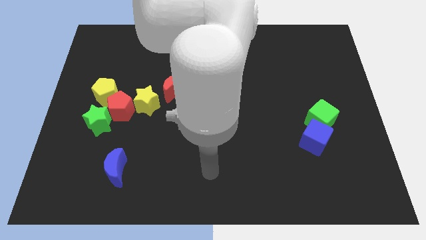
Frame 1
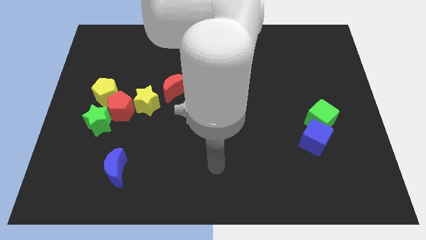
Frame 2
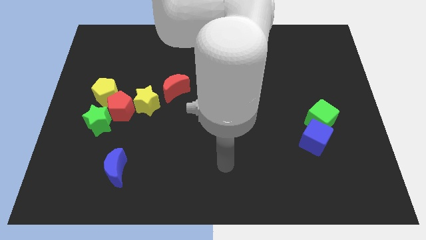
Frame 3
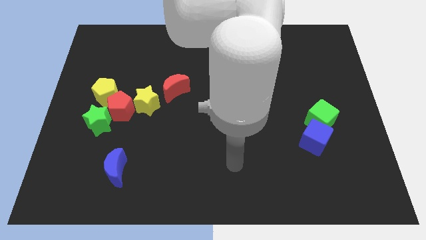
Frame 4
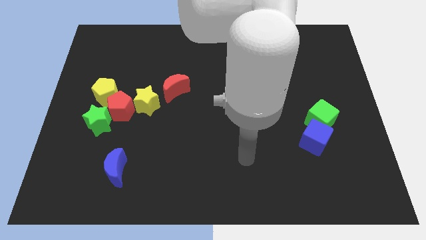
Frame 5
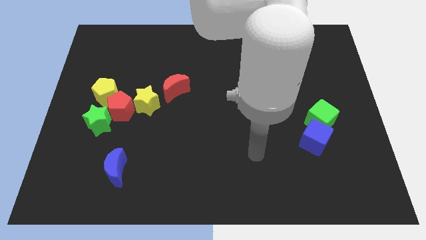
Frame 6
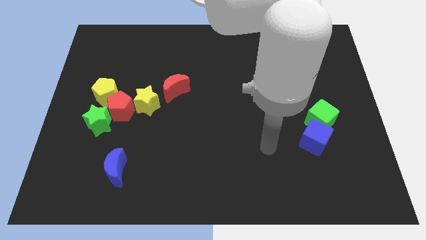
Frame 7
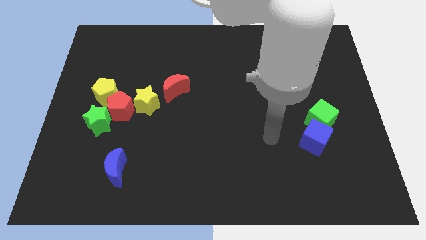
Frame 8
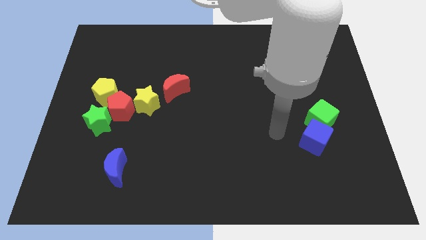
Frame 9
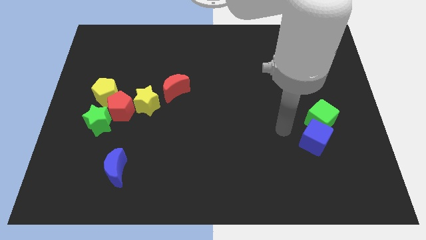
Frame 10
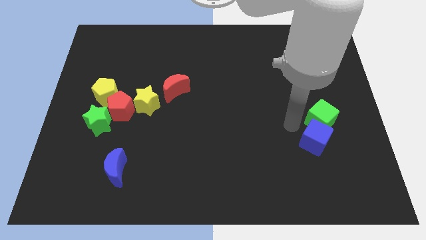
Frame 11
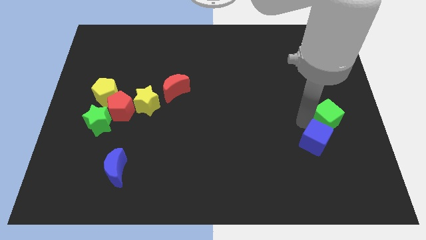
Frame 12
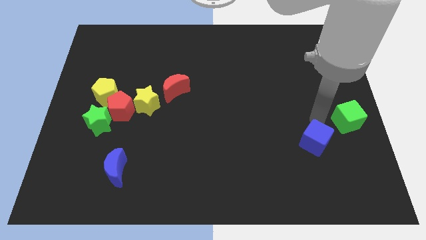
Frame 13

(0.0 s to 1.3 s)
separate the blue cube from the green cube

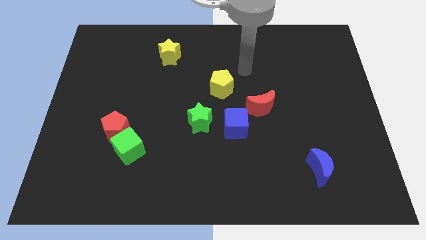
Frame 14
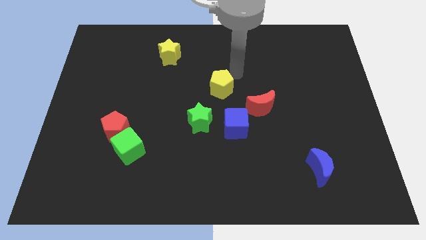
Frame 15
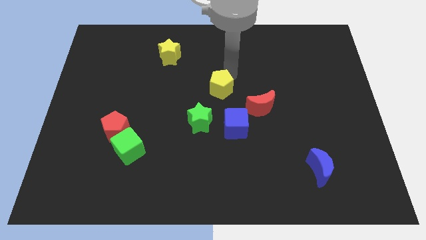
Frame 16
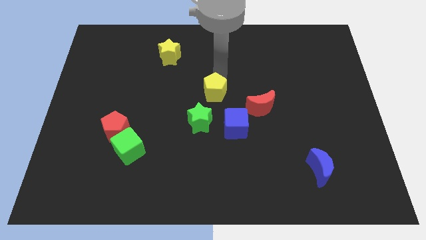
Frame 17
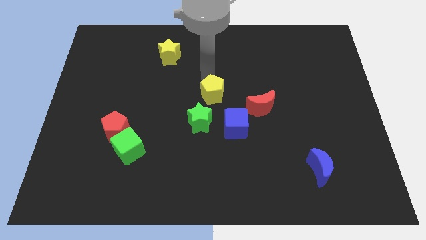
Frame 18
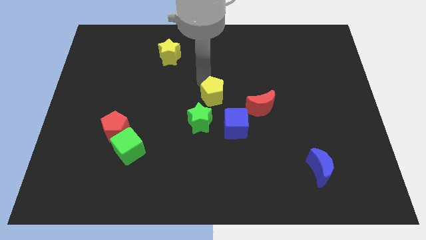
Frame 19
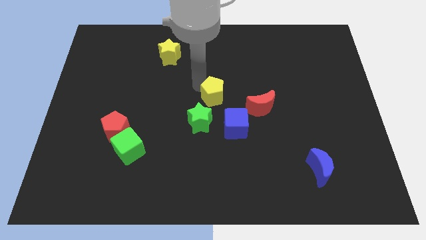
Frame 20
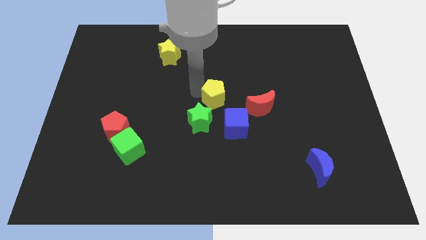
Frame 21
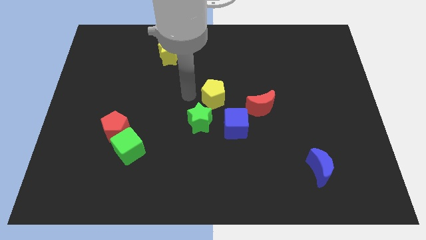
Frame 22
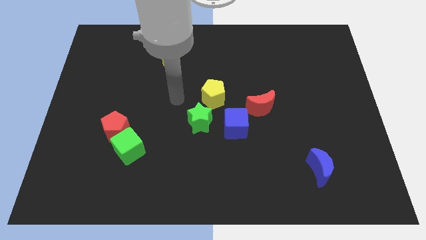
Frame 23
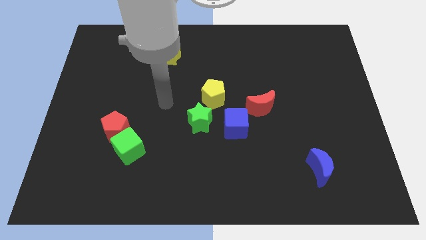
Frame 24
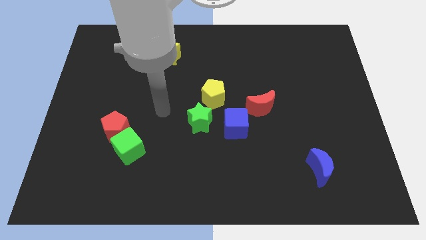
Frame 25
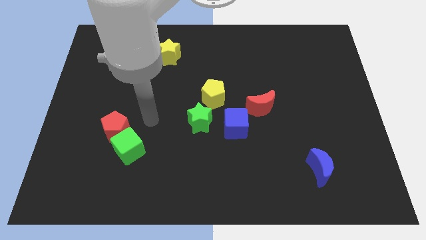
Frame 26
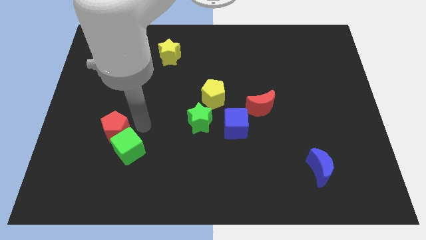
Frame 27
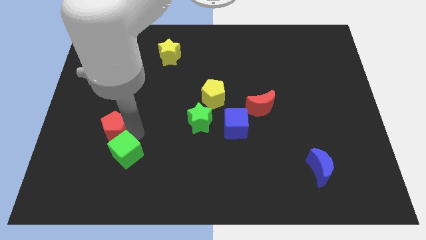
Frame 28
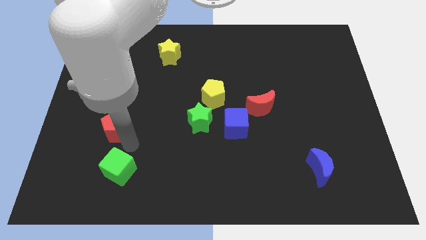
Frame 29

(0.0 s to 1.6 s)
move the red pentagon away from the green cube

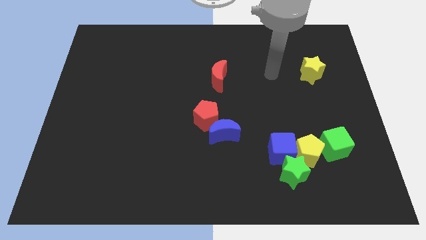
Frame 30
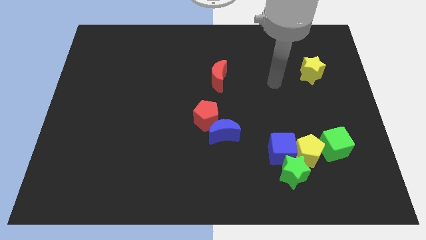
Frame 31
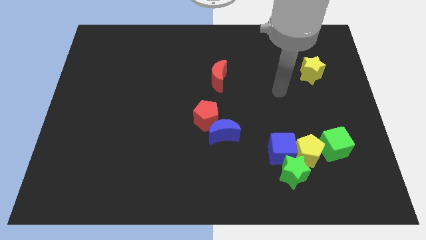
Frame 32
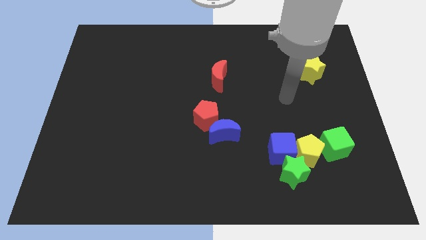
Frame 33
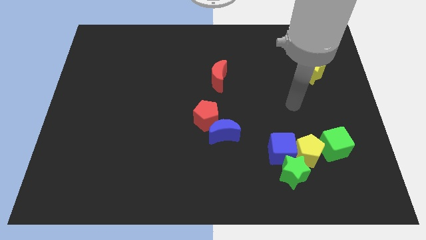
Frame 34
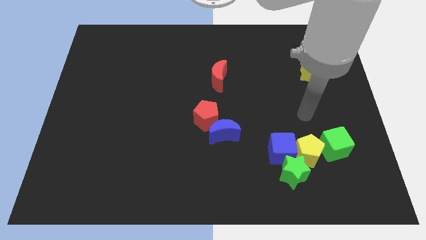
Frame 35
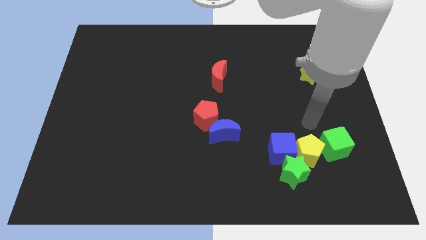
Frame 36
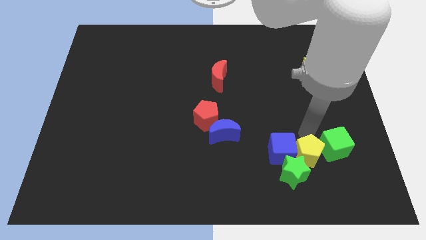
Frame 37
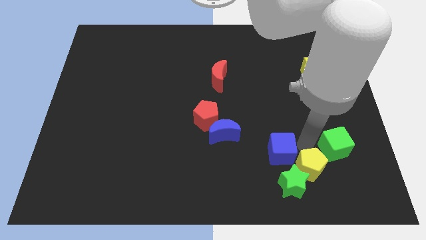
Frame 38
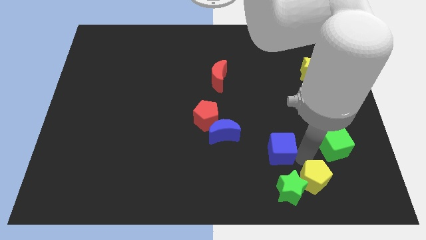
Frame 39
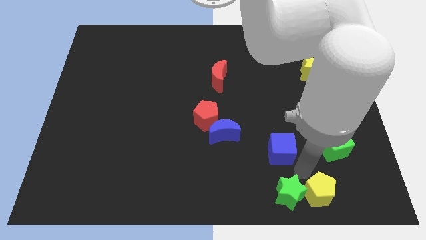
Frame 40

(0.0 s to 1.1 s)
separate the blue cube from the yellow pentagon and green star

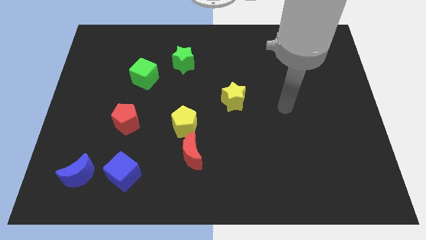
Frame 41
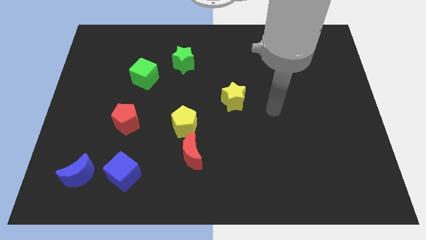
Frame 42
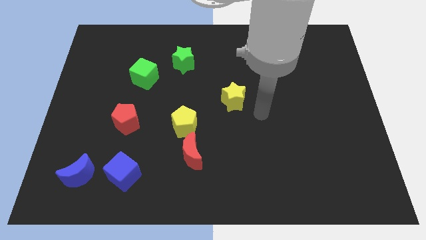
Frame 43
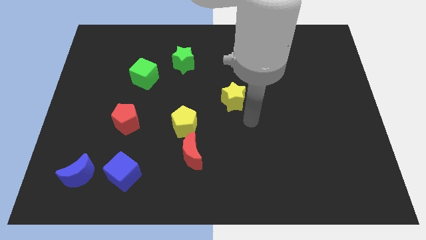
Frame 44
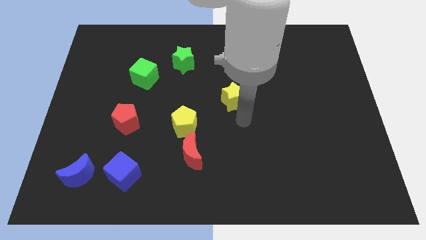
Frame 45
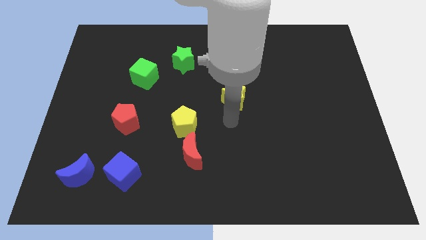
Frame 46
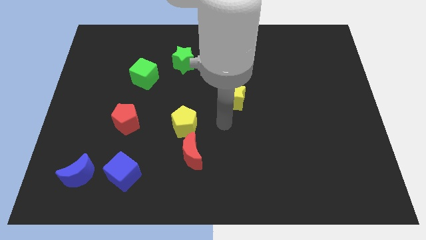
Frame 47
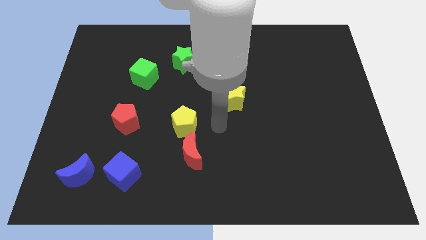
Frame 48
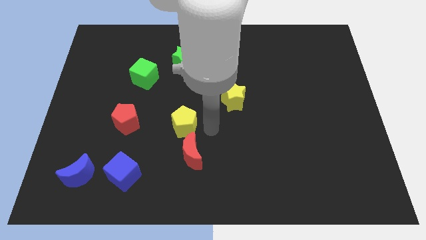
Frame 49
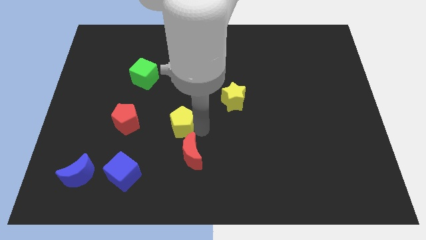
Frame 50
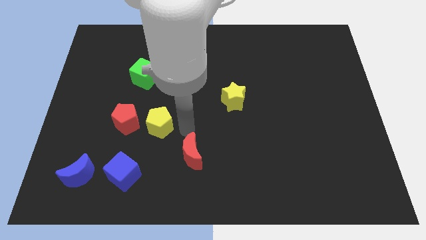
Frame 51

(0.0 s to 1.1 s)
pull the red moon apart from the yellow pentagon

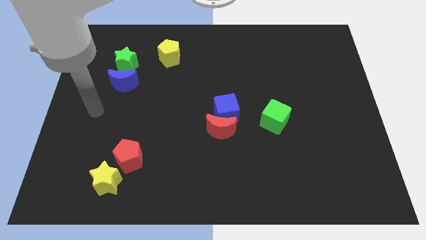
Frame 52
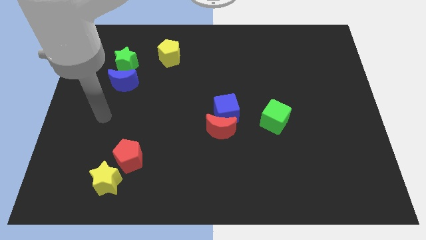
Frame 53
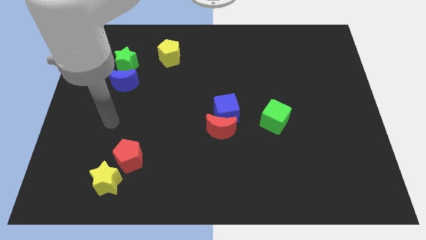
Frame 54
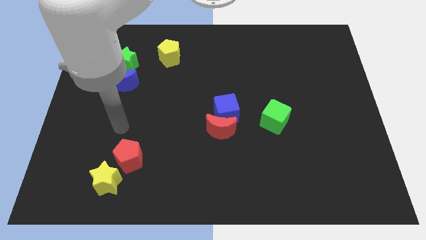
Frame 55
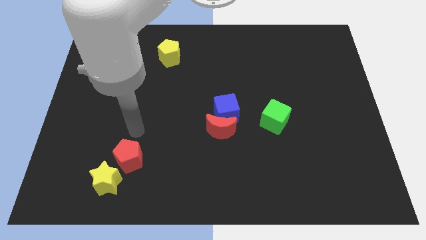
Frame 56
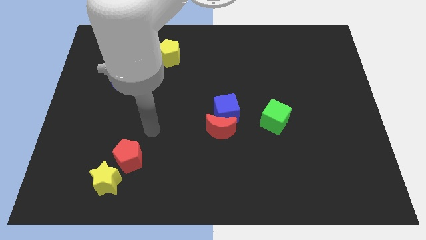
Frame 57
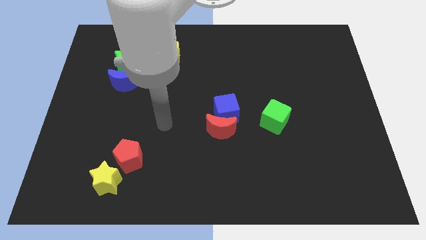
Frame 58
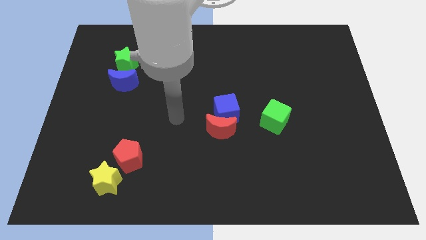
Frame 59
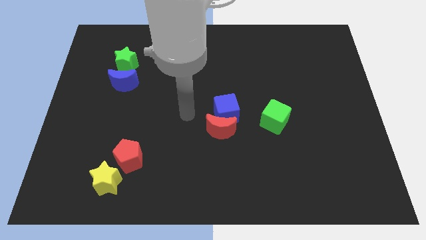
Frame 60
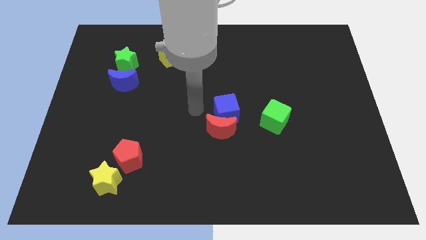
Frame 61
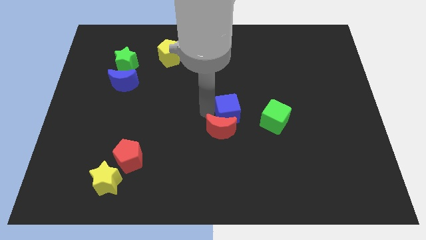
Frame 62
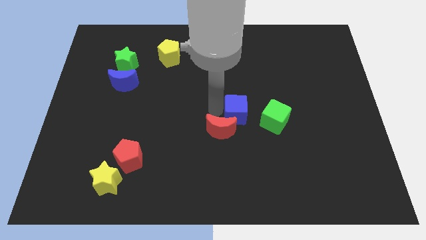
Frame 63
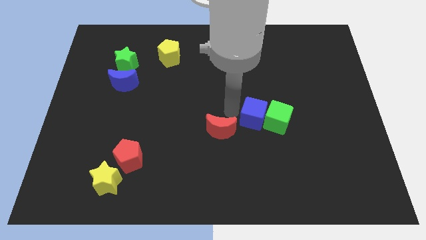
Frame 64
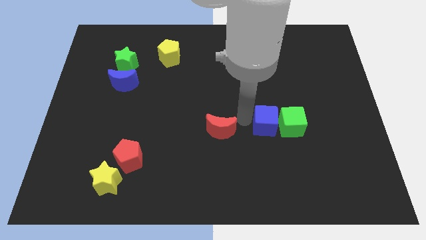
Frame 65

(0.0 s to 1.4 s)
pull the red moon apart from the blue cube

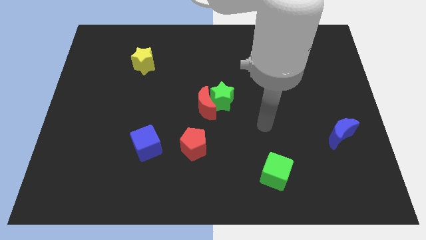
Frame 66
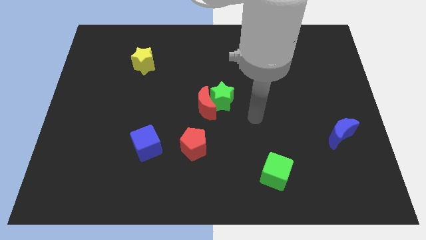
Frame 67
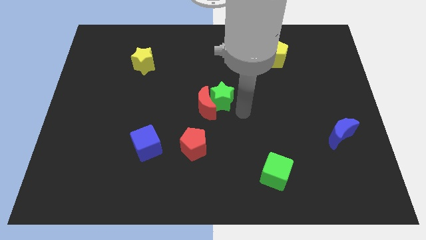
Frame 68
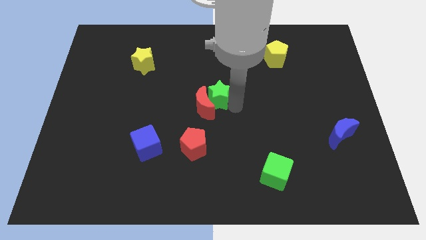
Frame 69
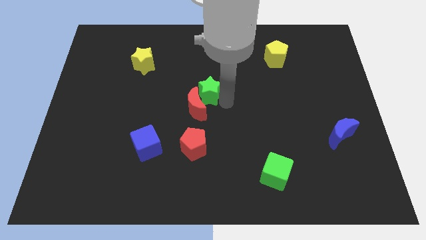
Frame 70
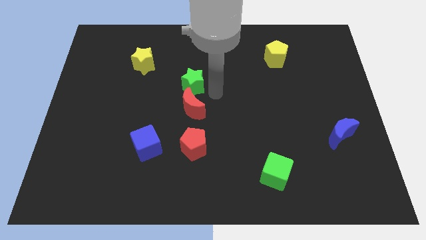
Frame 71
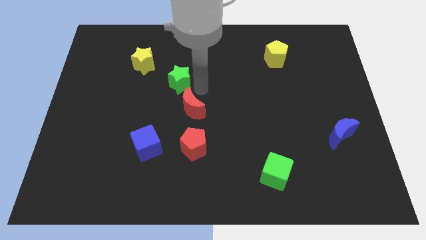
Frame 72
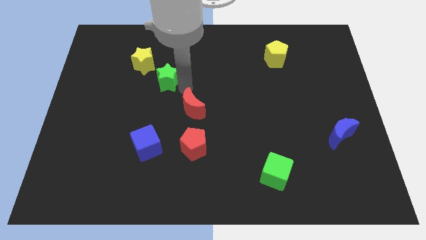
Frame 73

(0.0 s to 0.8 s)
separate the red moon from the green star

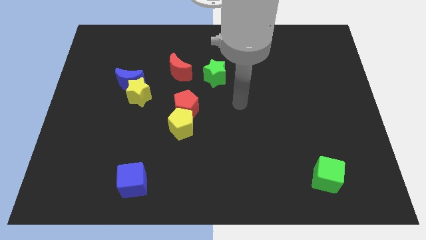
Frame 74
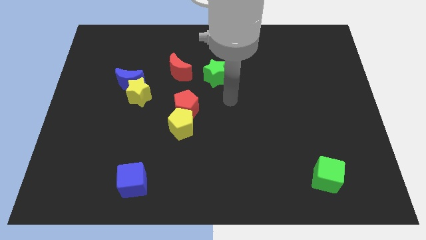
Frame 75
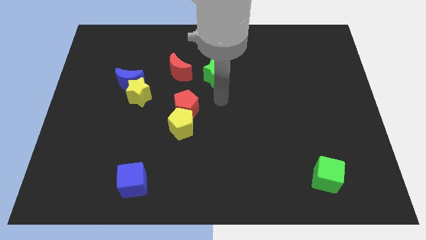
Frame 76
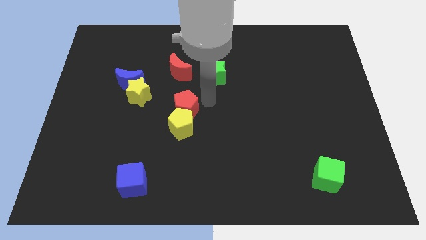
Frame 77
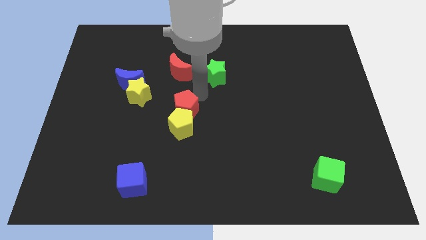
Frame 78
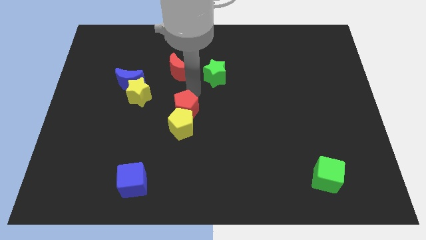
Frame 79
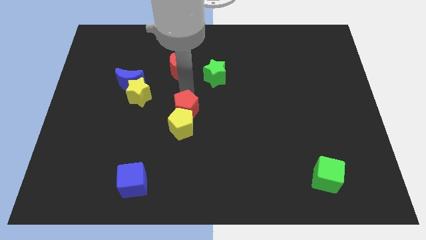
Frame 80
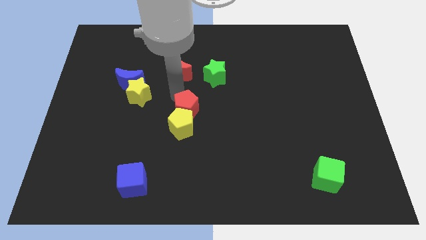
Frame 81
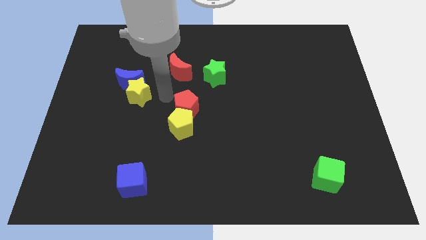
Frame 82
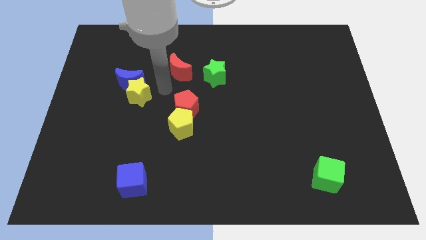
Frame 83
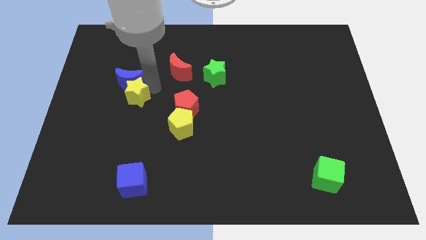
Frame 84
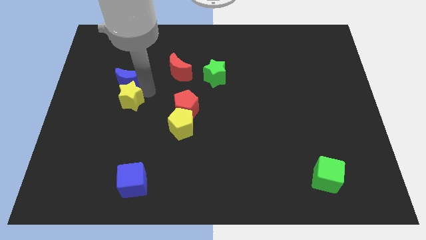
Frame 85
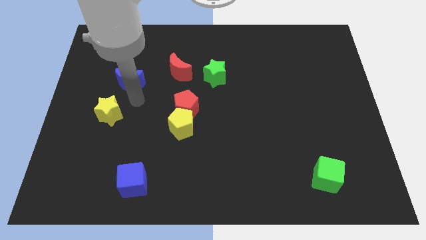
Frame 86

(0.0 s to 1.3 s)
separate the blue moon from the yellow star

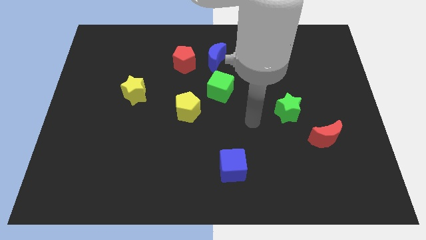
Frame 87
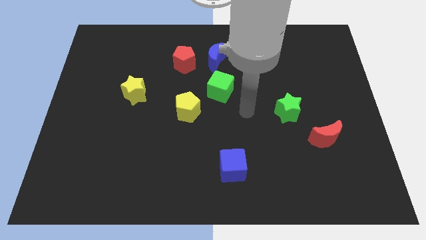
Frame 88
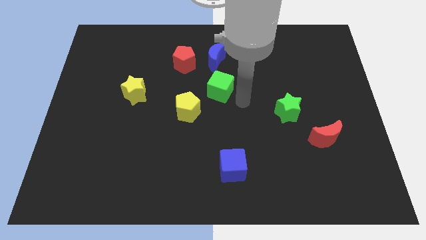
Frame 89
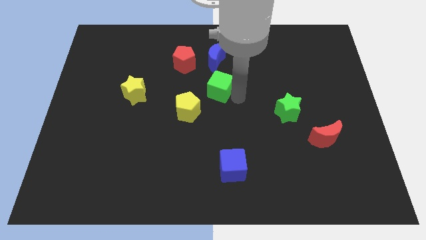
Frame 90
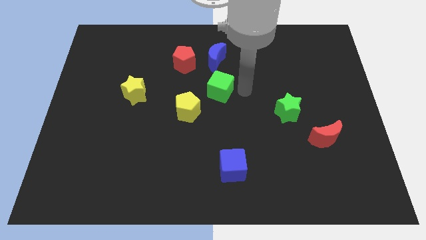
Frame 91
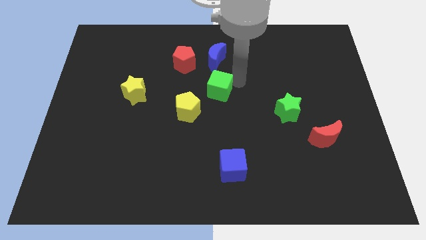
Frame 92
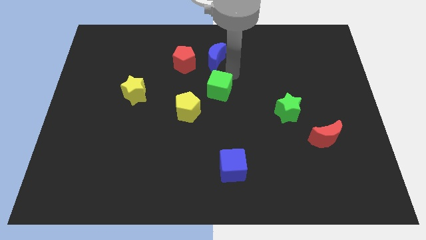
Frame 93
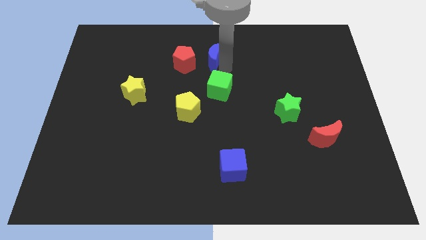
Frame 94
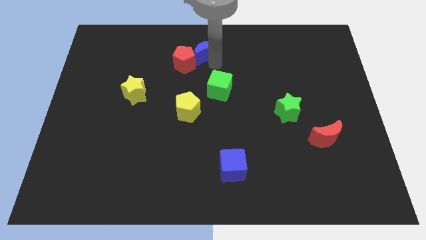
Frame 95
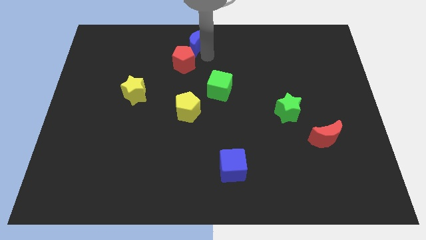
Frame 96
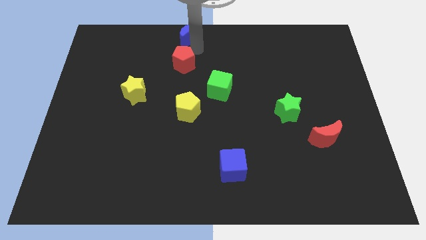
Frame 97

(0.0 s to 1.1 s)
move the red pentagon away from the blue moon
